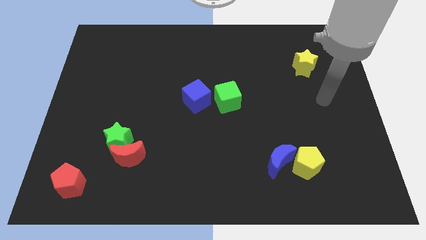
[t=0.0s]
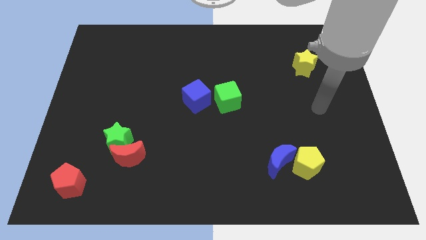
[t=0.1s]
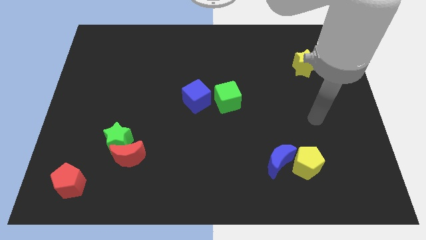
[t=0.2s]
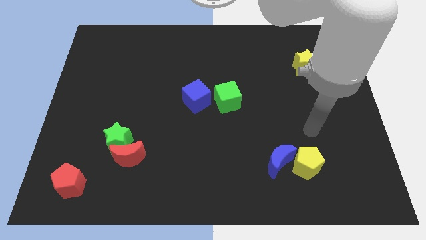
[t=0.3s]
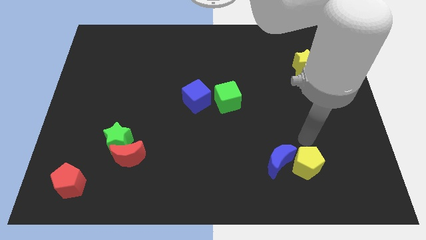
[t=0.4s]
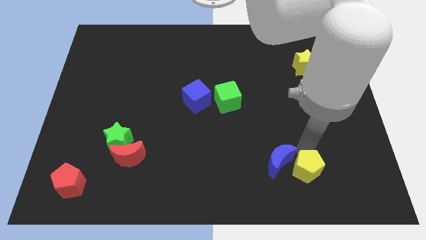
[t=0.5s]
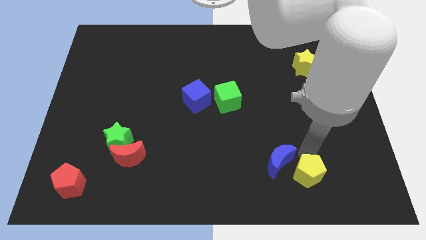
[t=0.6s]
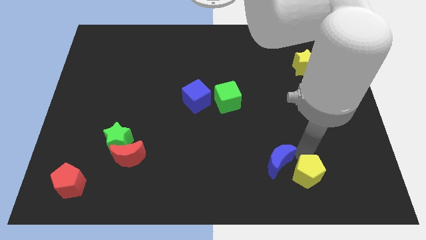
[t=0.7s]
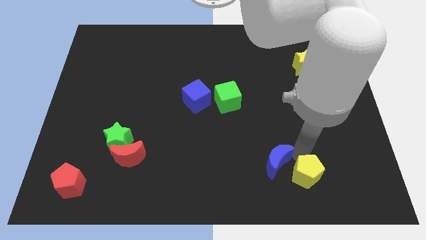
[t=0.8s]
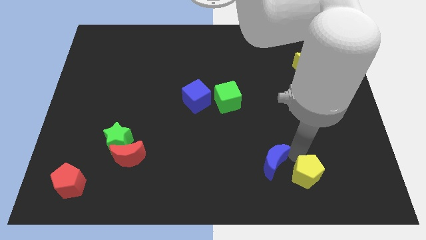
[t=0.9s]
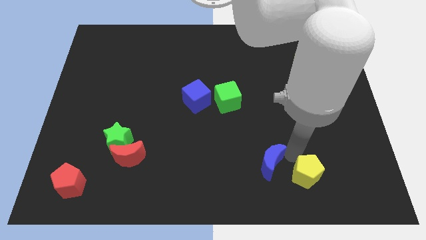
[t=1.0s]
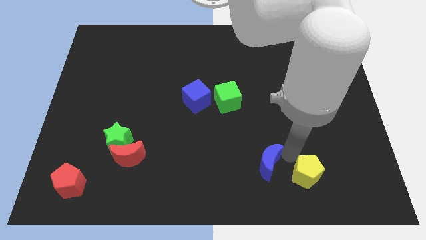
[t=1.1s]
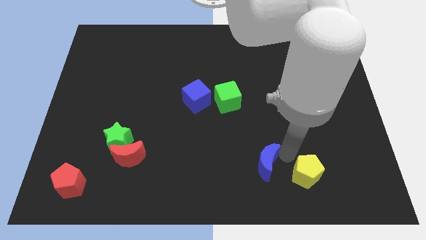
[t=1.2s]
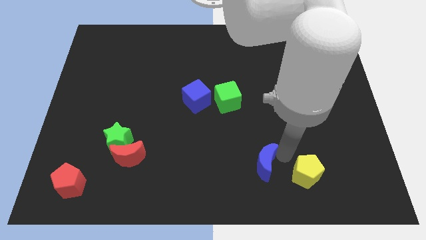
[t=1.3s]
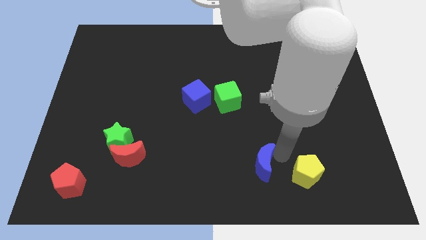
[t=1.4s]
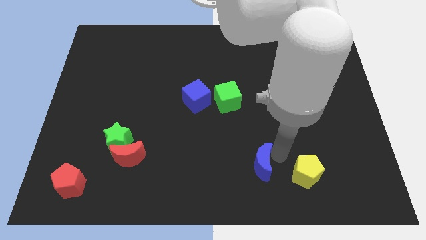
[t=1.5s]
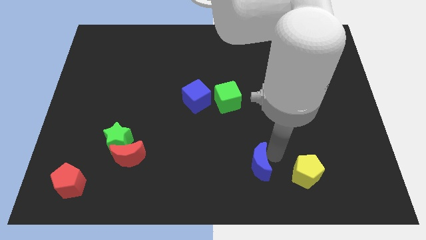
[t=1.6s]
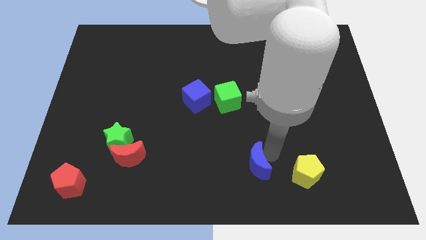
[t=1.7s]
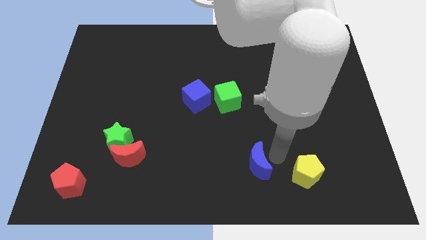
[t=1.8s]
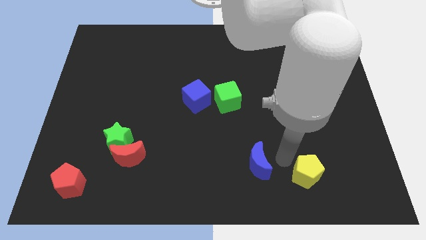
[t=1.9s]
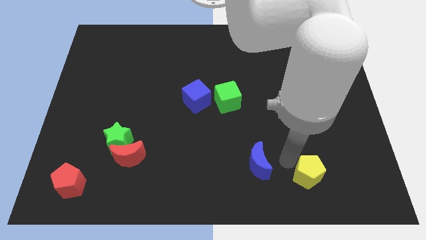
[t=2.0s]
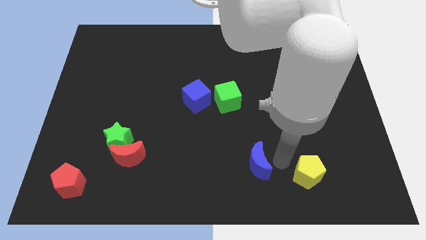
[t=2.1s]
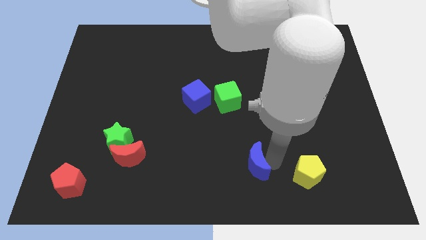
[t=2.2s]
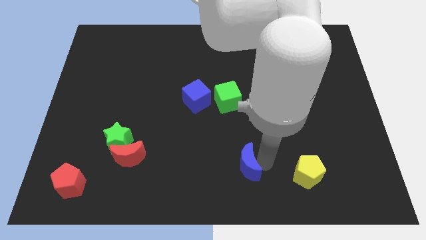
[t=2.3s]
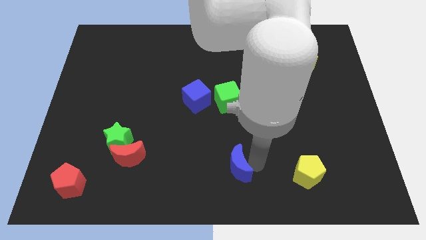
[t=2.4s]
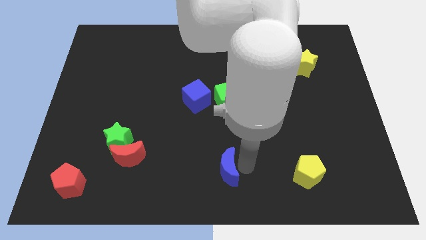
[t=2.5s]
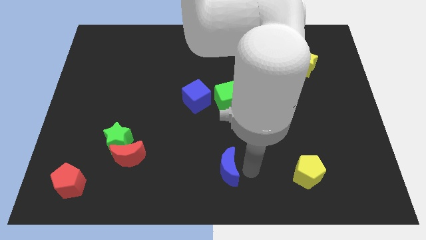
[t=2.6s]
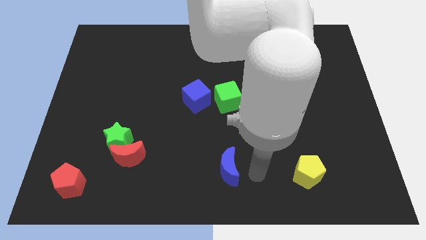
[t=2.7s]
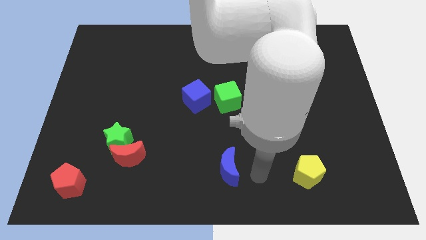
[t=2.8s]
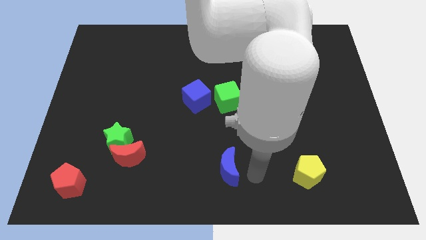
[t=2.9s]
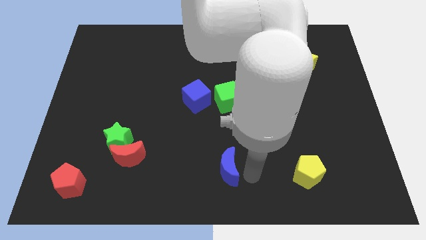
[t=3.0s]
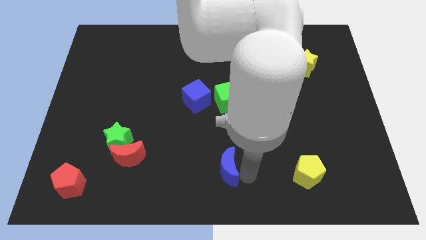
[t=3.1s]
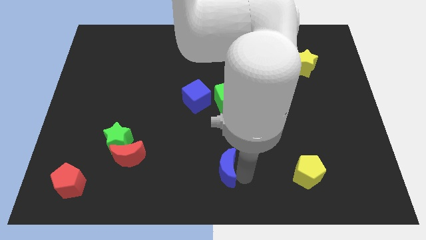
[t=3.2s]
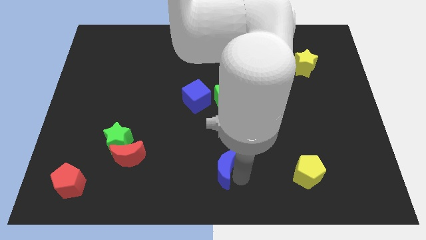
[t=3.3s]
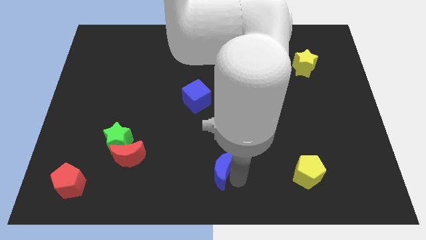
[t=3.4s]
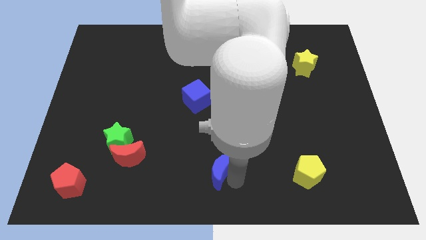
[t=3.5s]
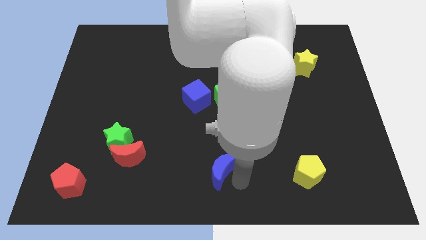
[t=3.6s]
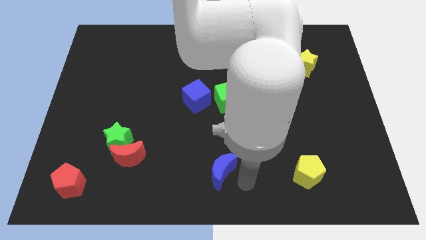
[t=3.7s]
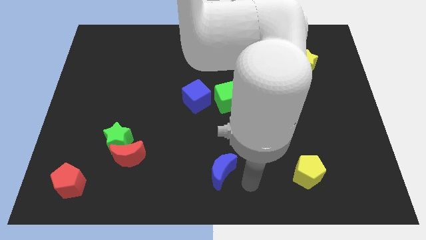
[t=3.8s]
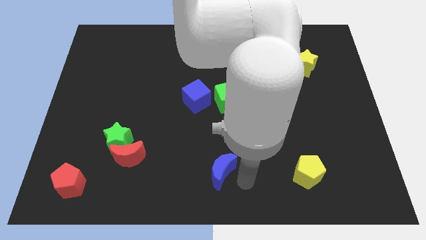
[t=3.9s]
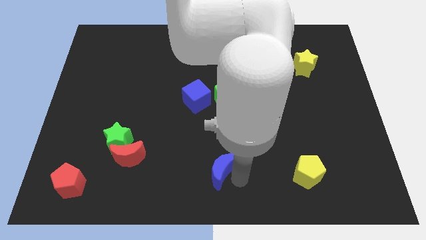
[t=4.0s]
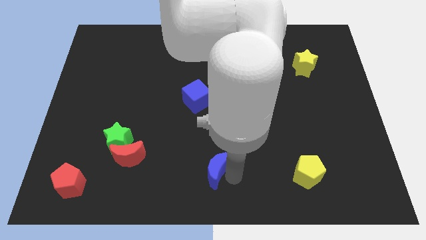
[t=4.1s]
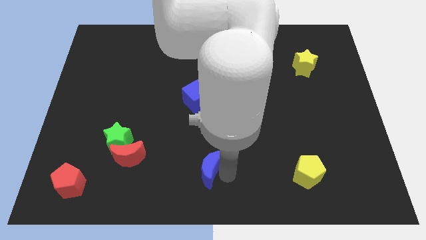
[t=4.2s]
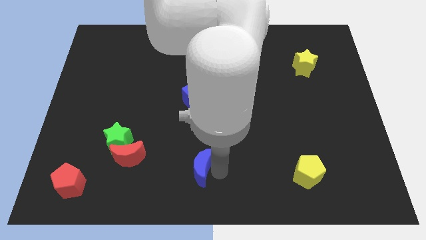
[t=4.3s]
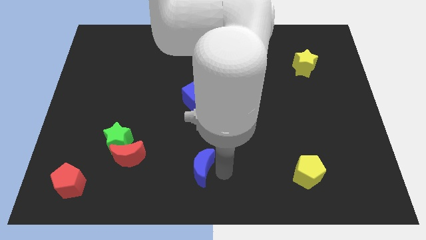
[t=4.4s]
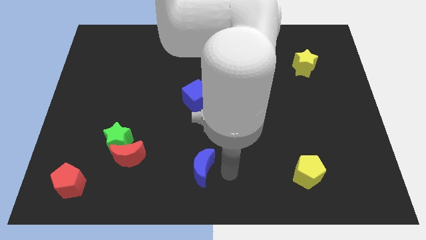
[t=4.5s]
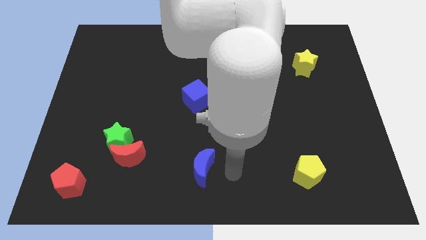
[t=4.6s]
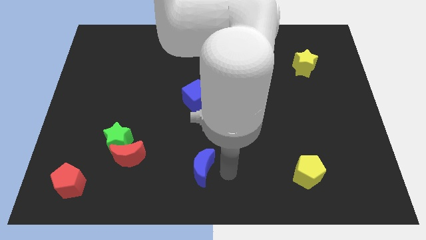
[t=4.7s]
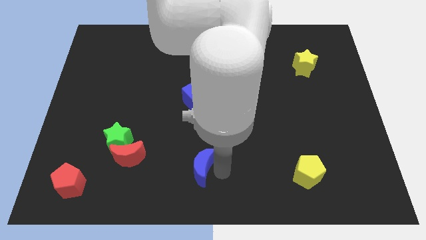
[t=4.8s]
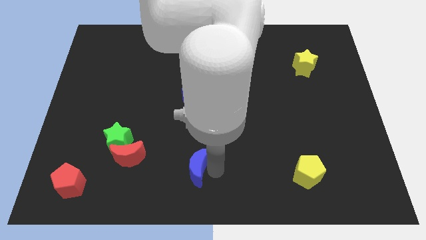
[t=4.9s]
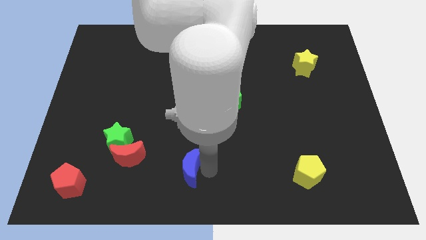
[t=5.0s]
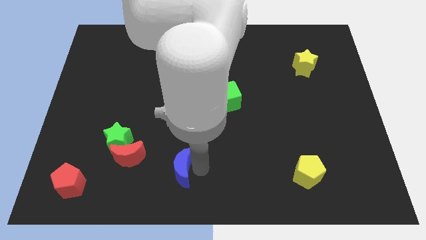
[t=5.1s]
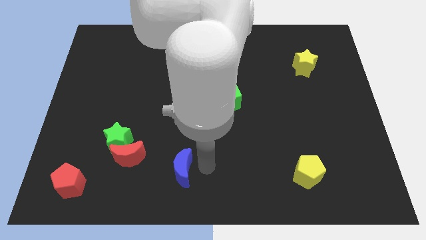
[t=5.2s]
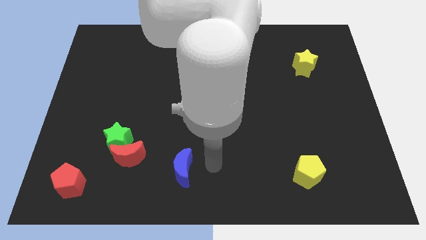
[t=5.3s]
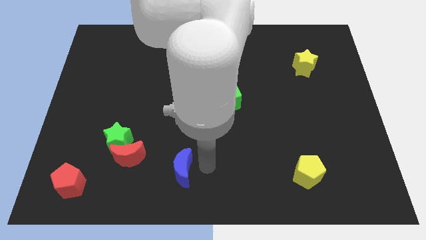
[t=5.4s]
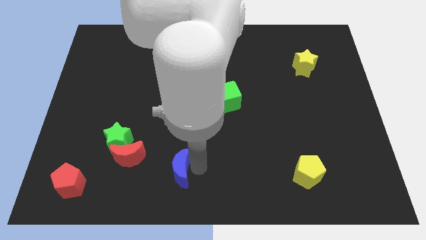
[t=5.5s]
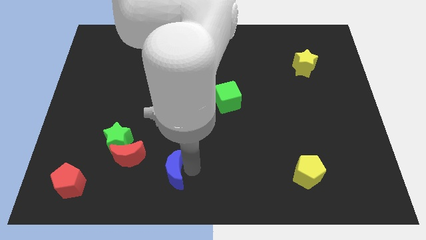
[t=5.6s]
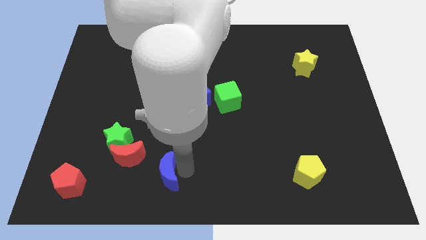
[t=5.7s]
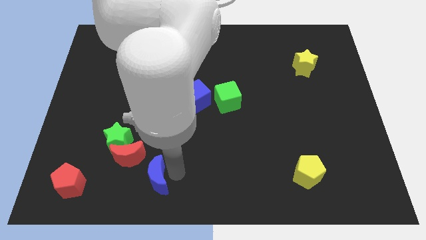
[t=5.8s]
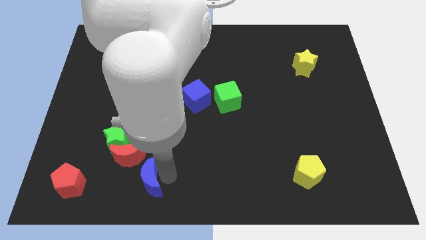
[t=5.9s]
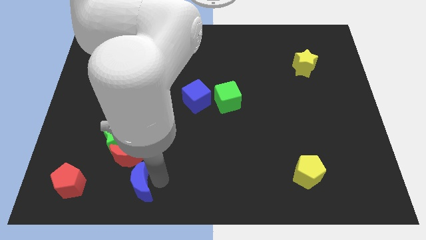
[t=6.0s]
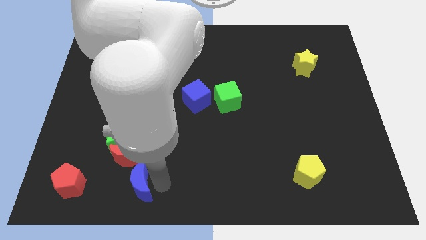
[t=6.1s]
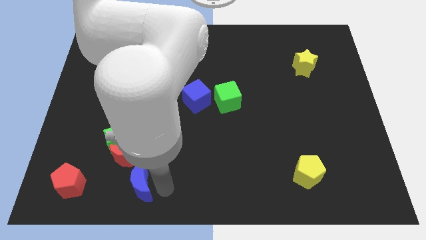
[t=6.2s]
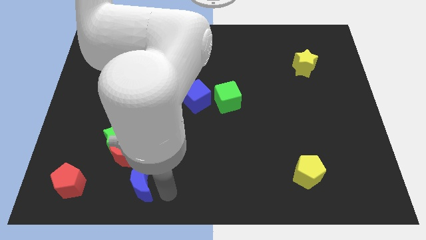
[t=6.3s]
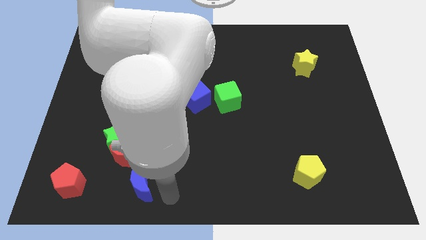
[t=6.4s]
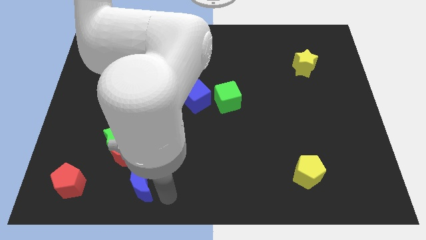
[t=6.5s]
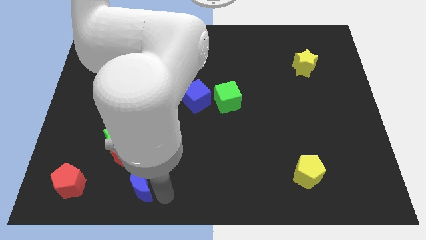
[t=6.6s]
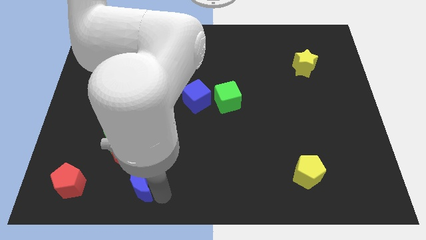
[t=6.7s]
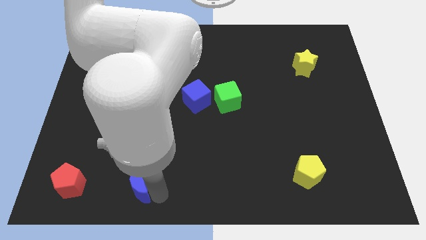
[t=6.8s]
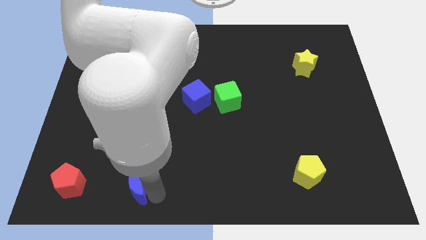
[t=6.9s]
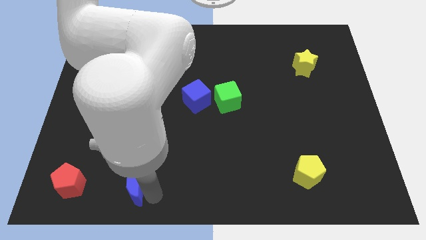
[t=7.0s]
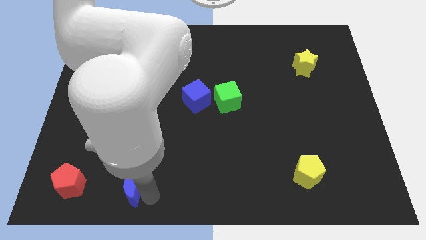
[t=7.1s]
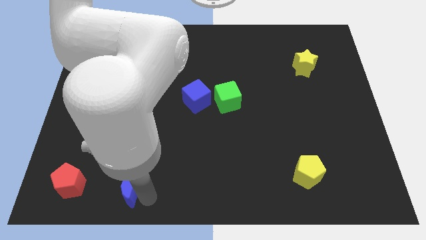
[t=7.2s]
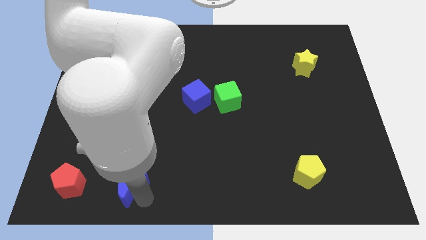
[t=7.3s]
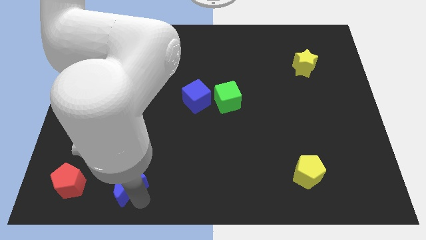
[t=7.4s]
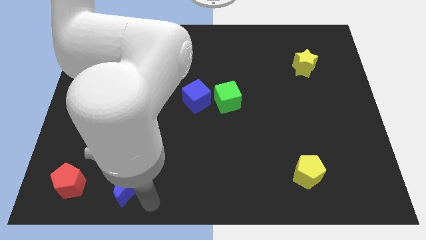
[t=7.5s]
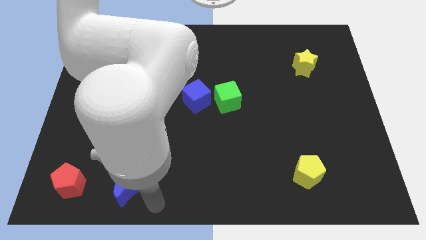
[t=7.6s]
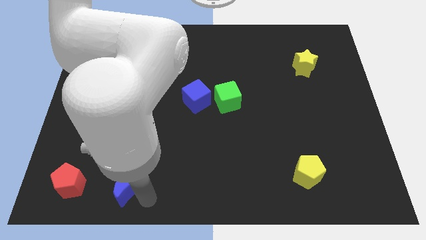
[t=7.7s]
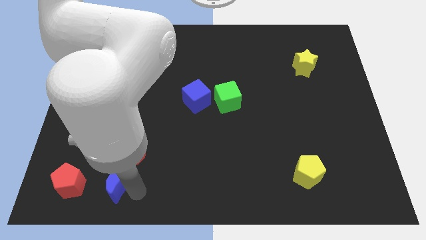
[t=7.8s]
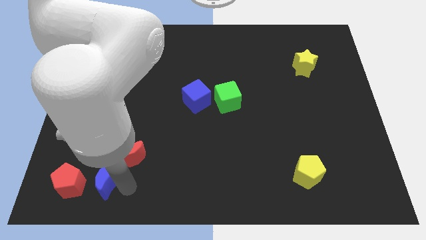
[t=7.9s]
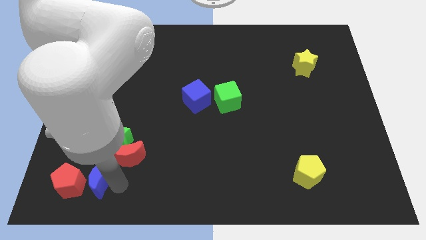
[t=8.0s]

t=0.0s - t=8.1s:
put the blue moon to the bottom left of the green star
